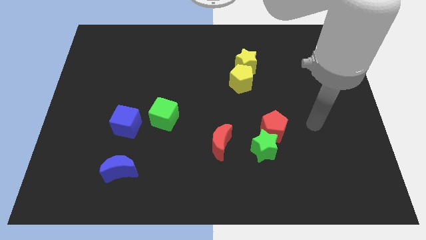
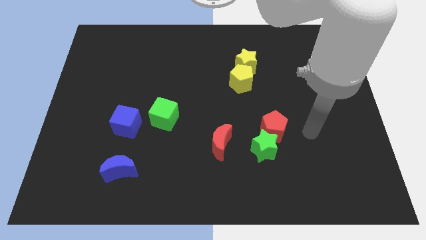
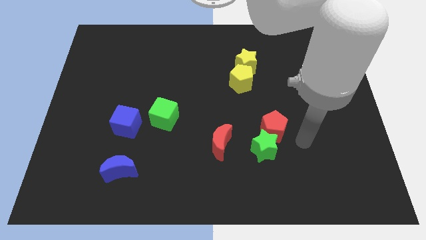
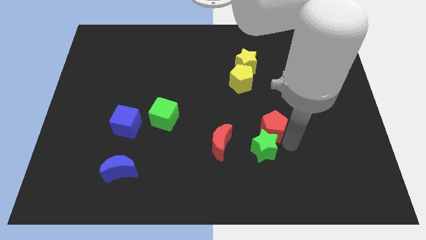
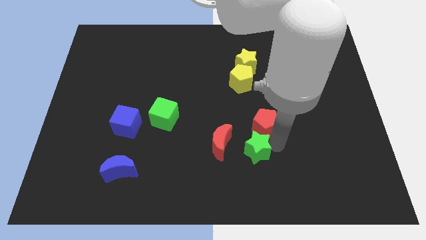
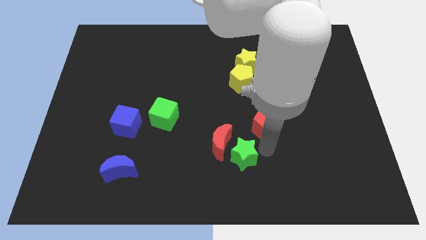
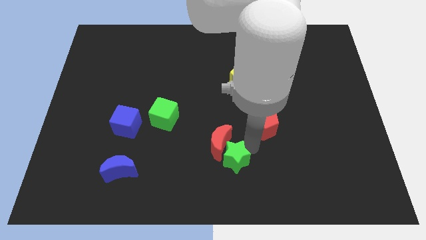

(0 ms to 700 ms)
pull the red pentagon apart from the green star

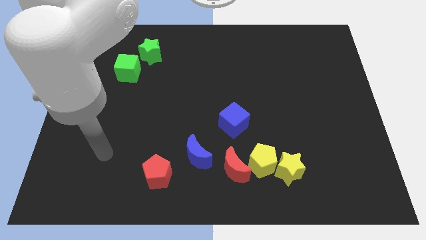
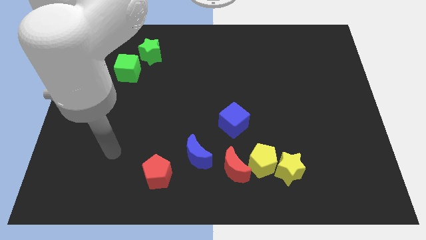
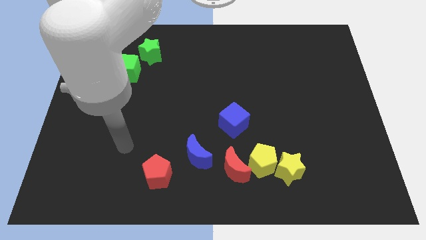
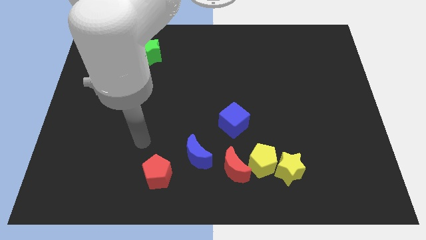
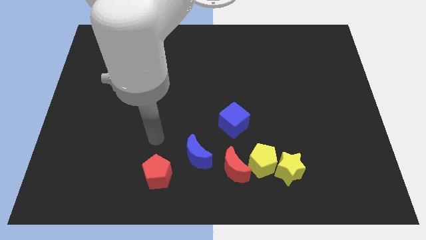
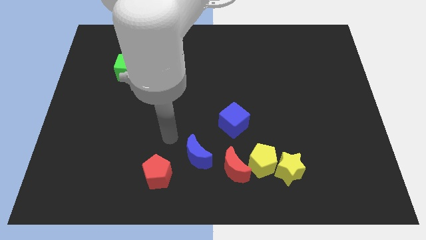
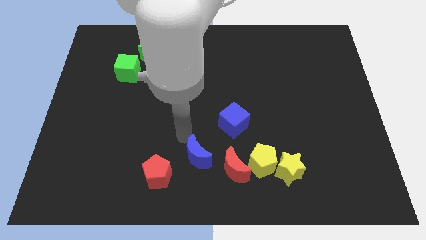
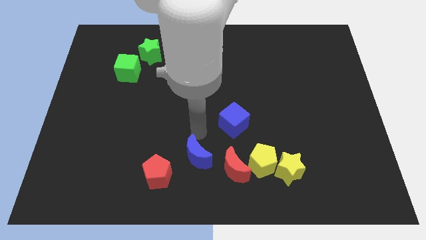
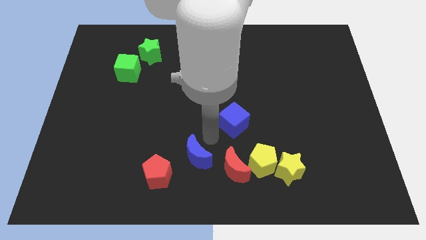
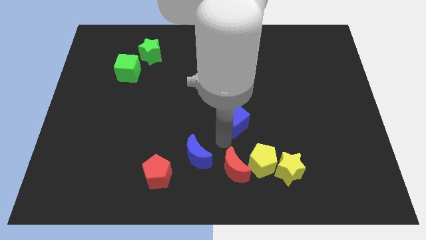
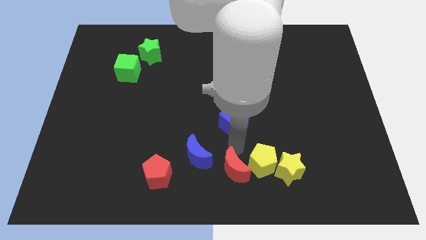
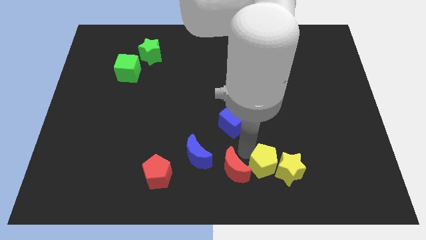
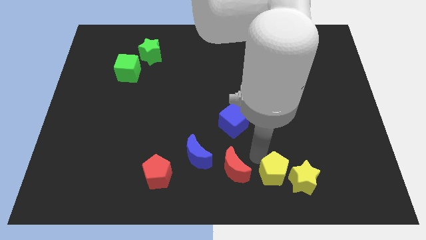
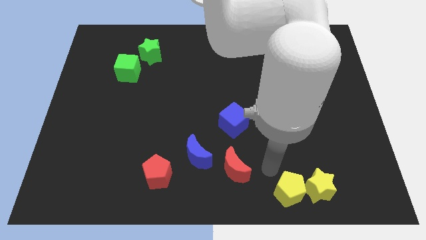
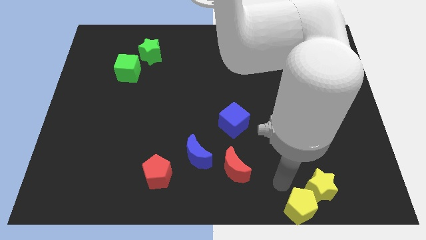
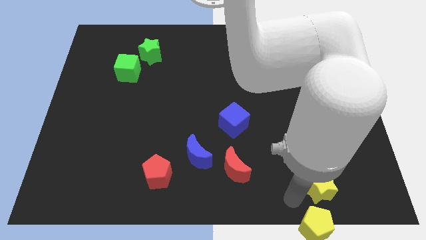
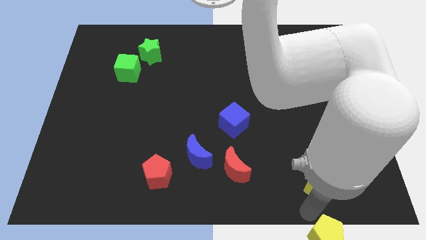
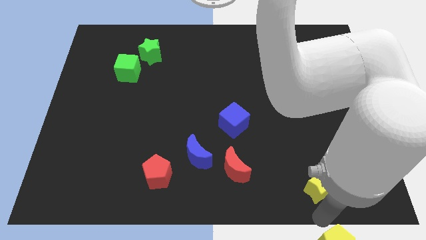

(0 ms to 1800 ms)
separate the yellow star from the yellow pentagon

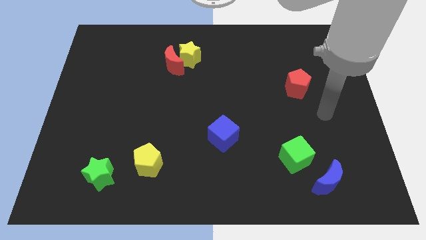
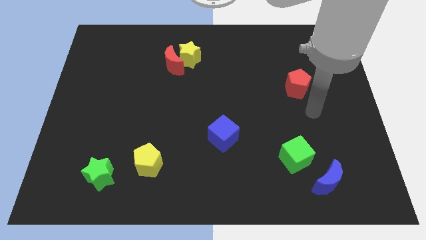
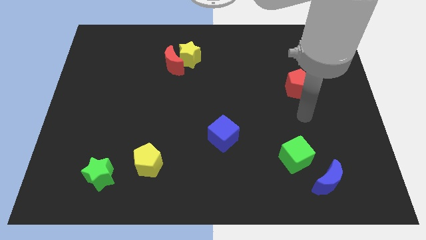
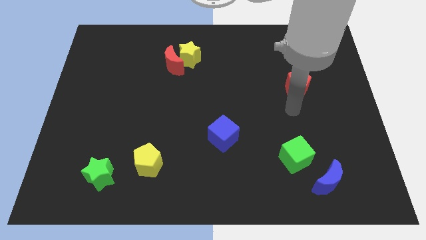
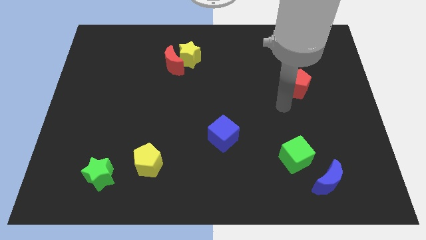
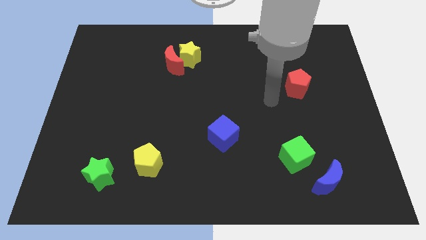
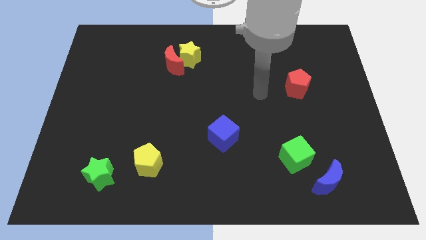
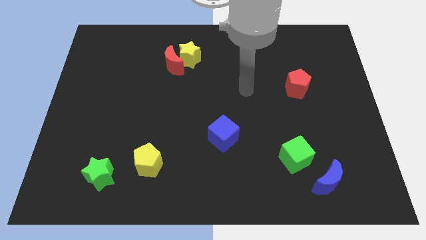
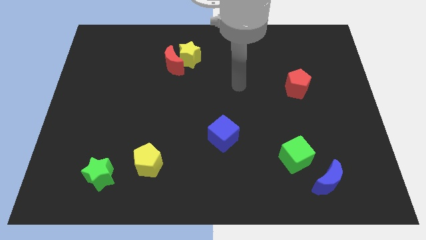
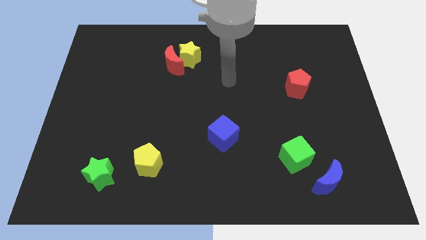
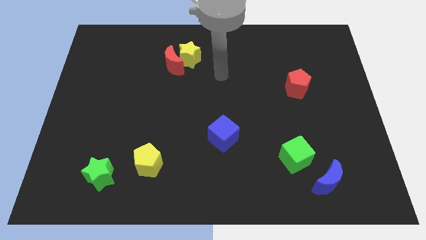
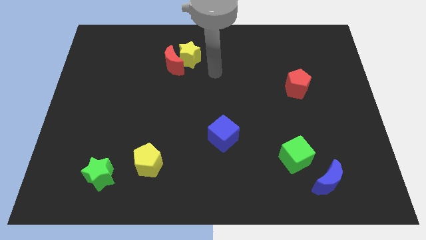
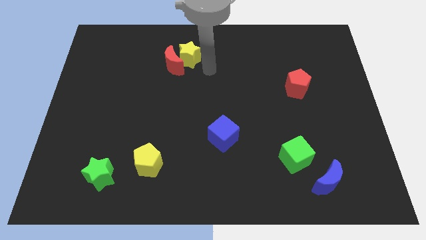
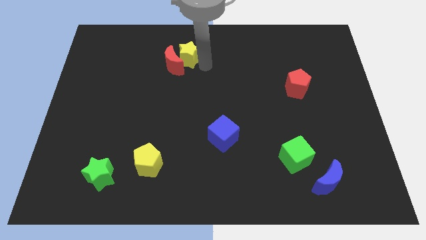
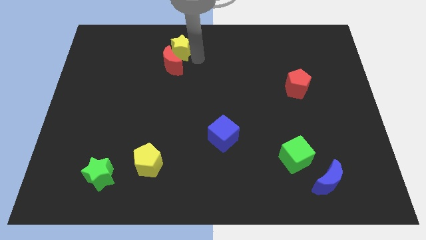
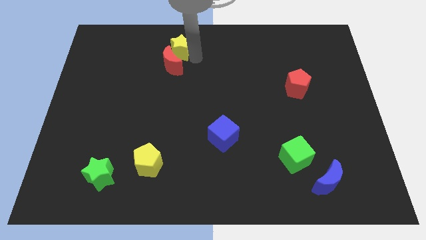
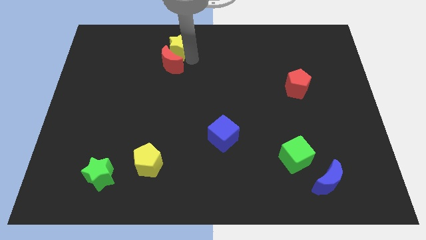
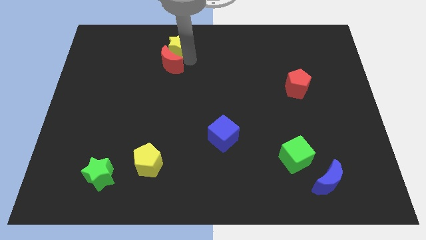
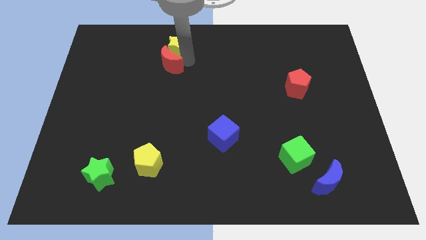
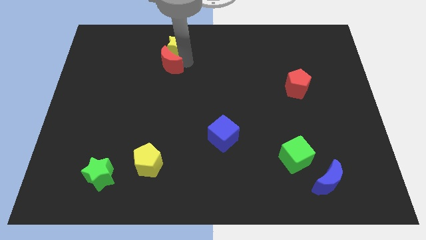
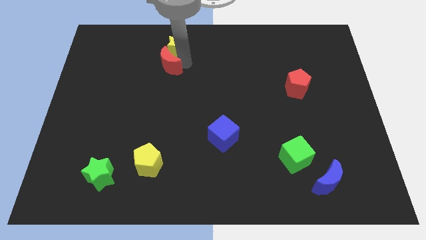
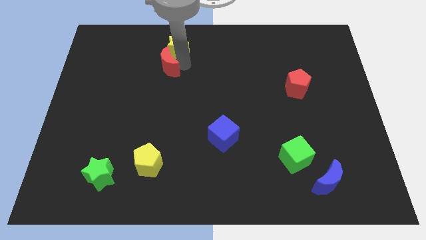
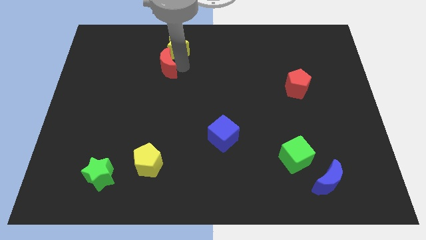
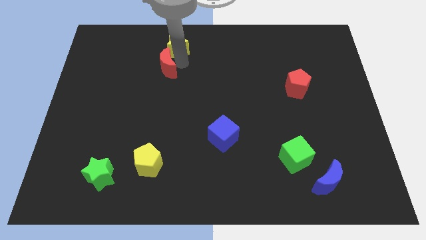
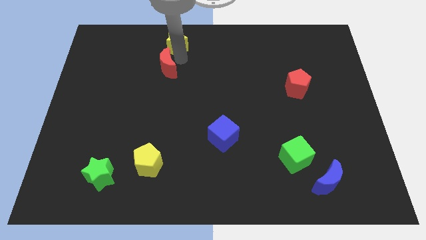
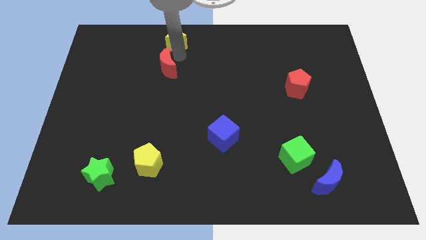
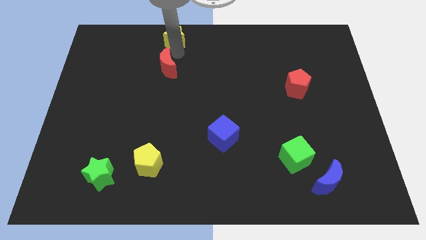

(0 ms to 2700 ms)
separate the red moon from the yellow star

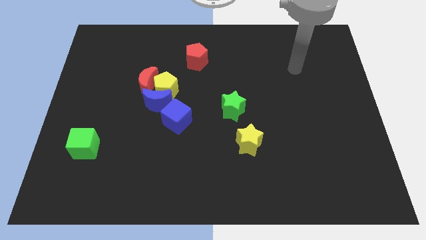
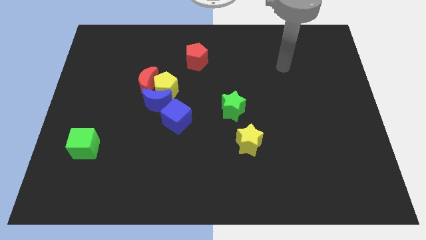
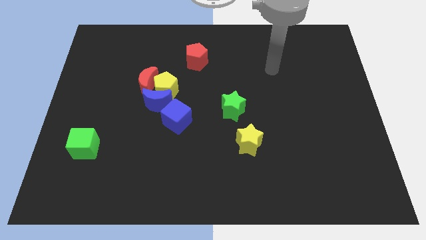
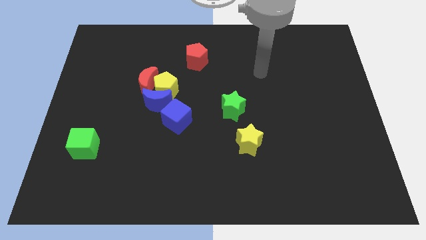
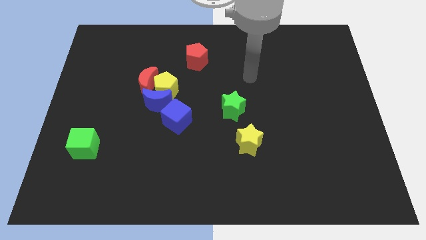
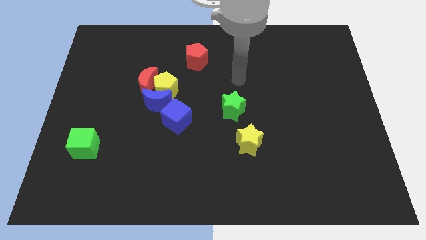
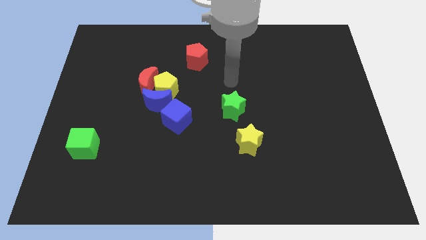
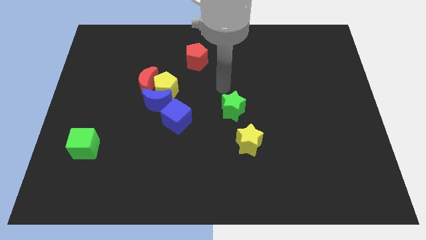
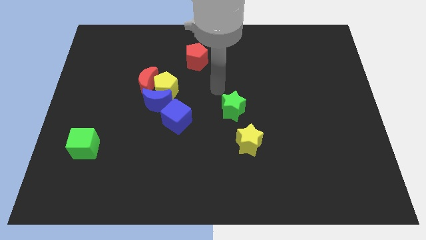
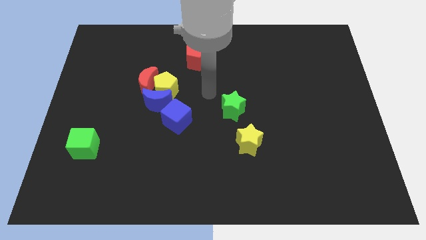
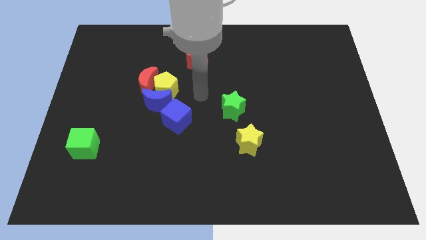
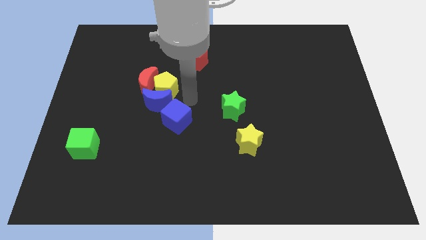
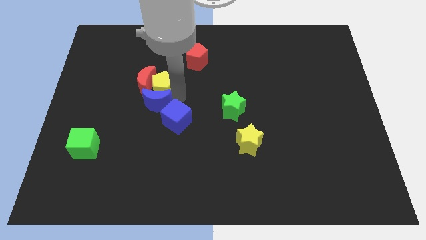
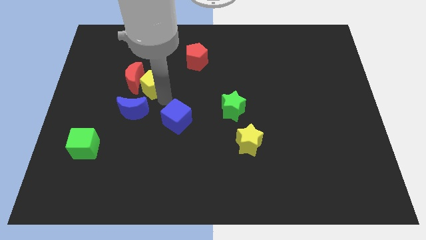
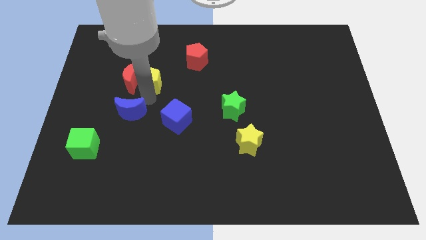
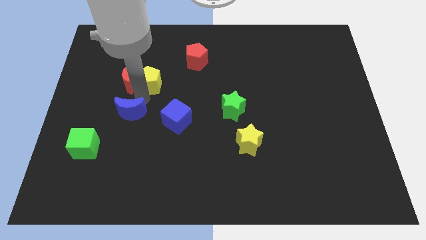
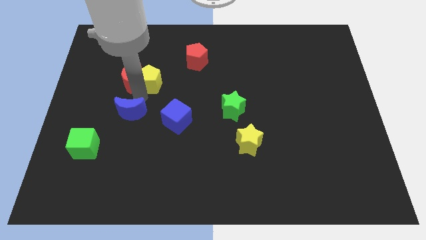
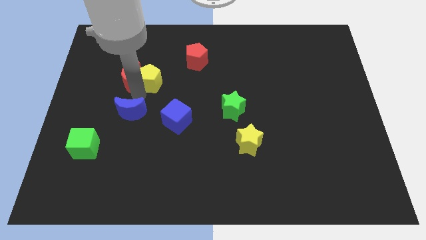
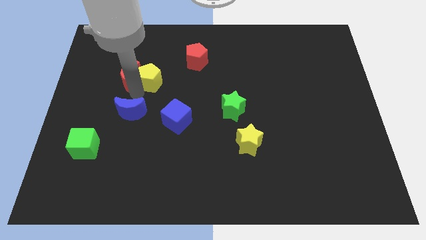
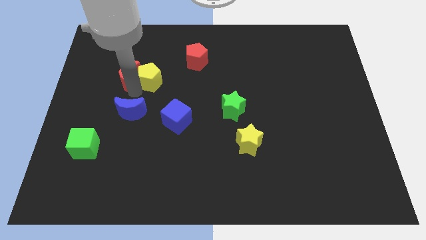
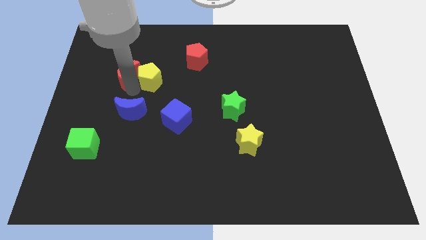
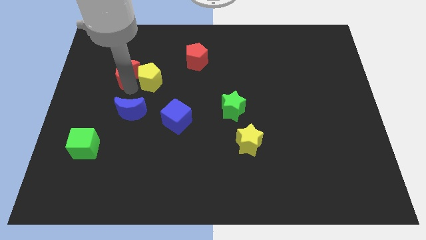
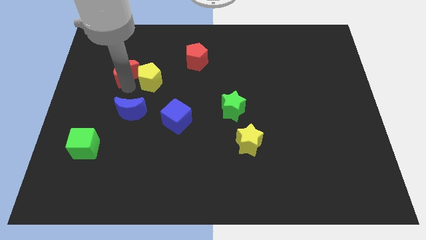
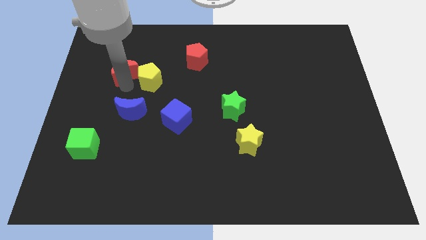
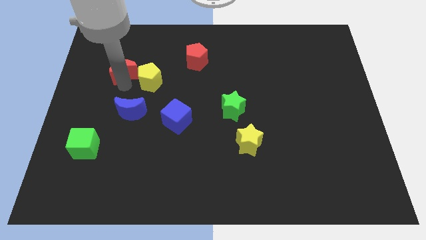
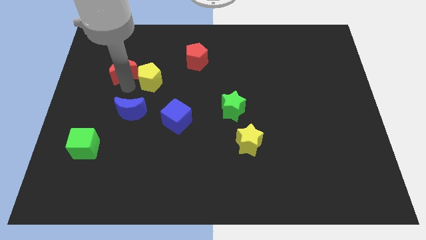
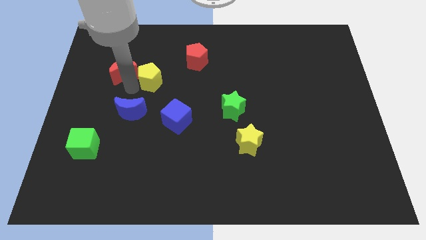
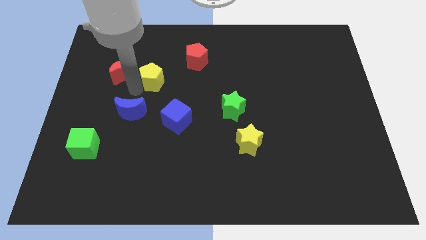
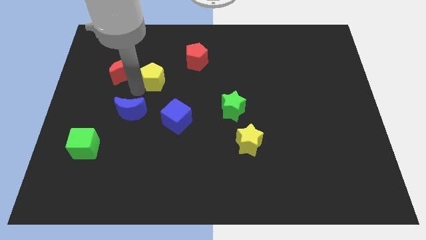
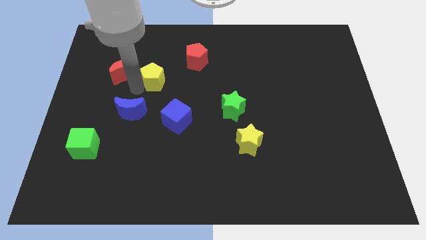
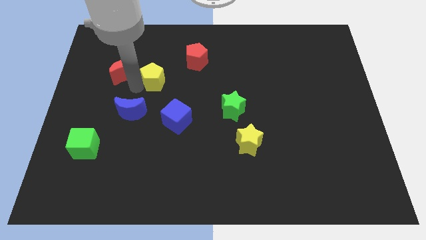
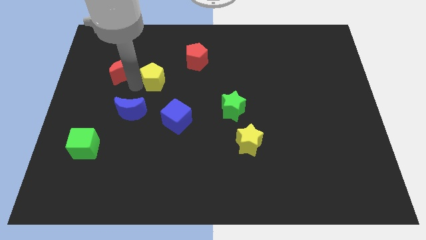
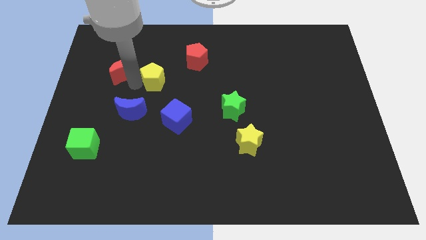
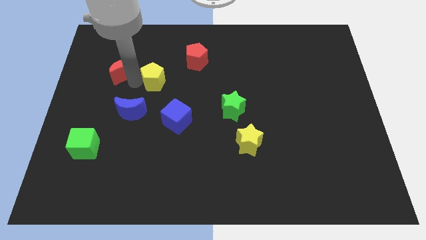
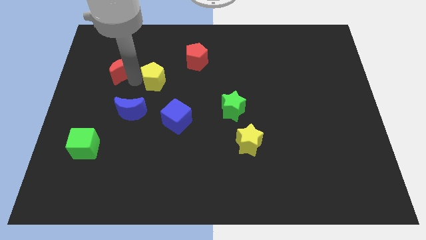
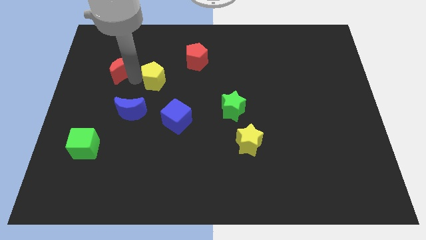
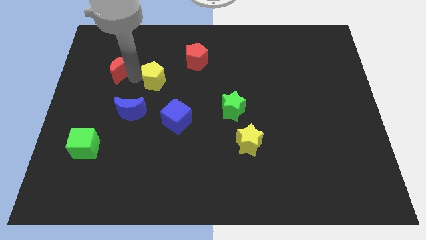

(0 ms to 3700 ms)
pull the red moon apart from the yellow pentagon and blue moon

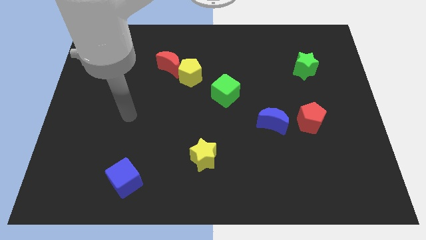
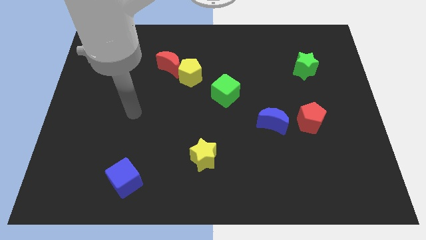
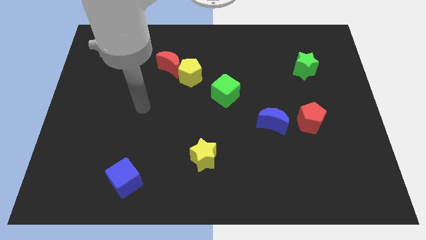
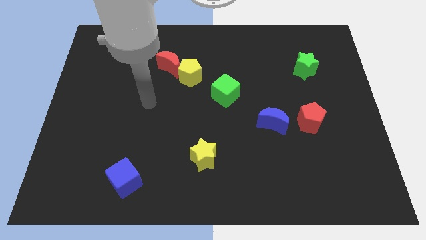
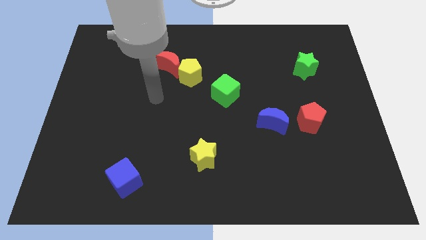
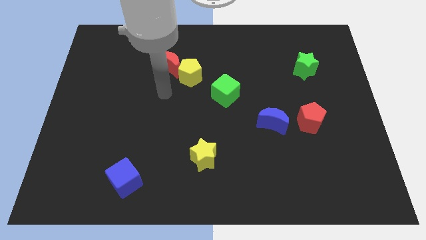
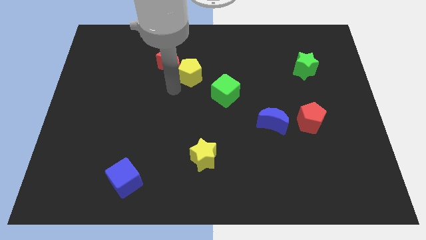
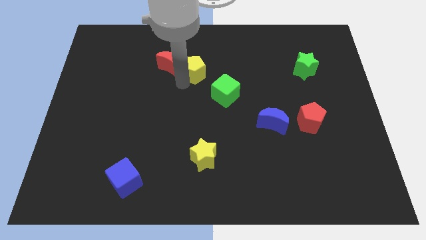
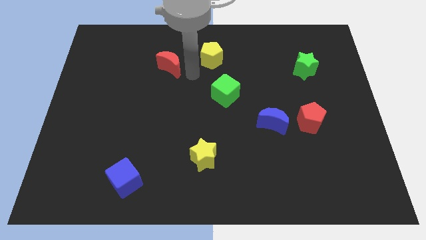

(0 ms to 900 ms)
pull the red moon apart from the yellow pentagon
